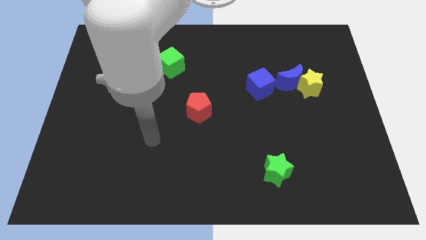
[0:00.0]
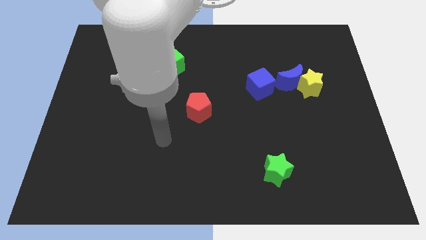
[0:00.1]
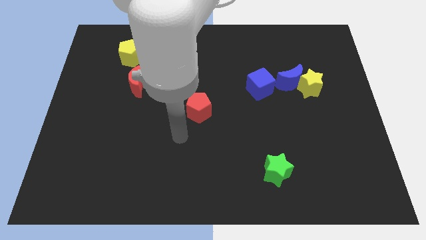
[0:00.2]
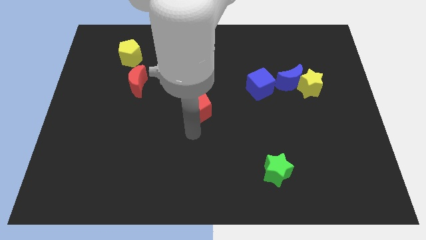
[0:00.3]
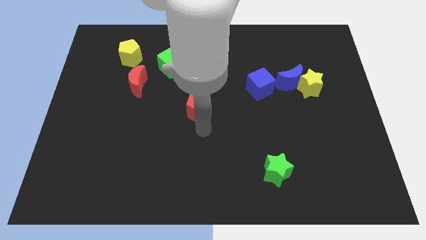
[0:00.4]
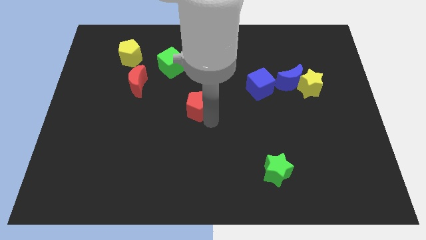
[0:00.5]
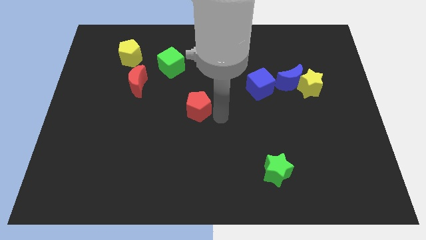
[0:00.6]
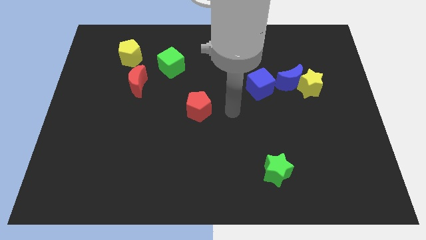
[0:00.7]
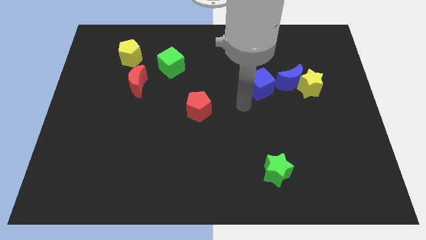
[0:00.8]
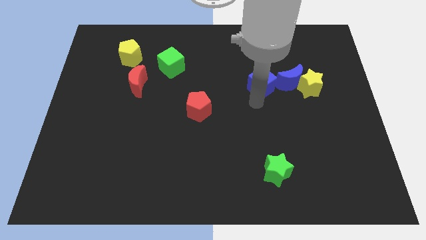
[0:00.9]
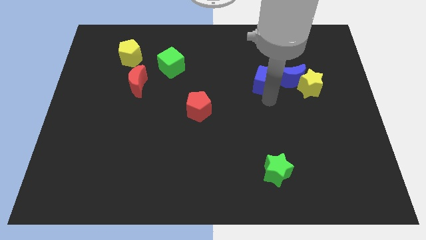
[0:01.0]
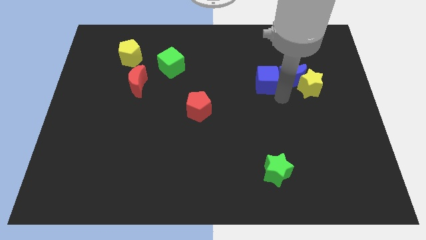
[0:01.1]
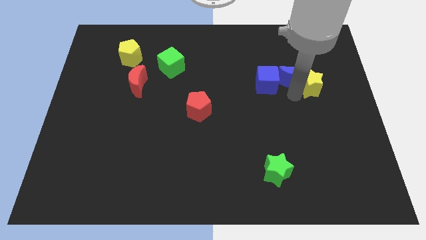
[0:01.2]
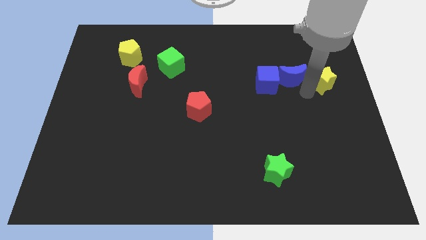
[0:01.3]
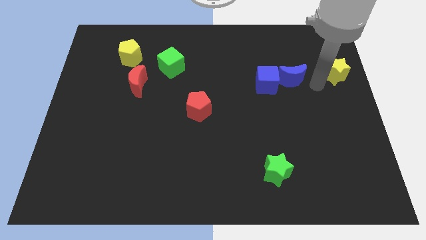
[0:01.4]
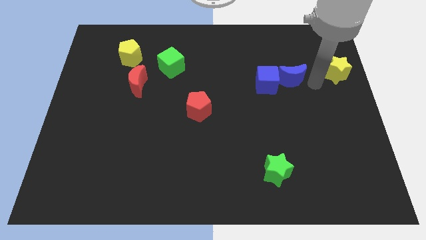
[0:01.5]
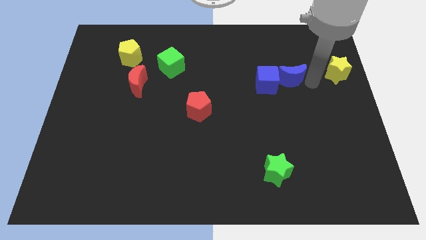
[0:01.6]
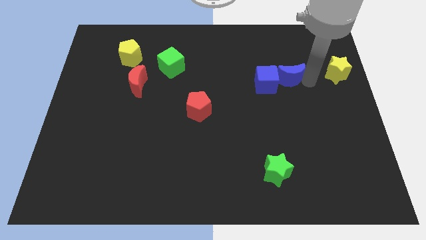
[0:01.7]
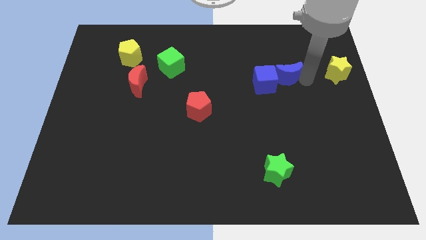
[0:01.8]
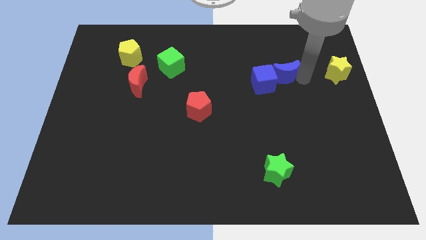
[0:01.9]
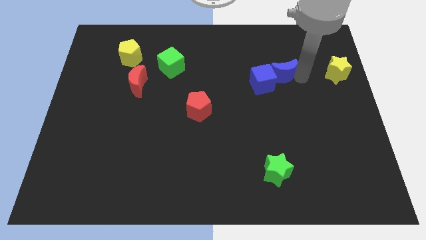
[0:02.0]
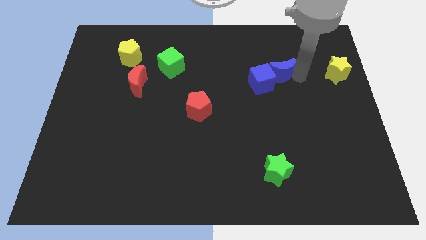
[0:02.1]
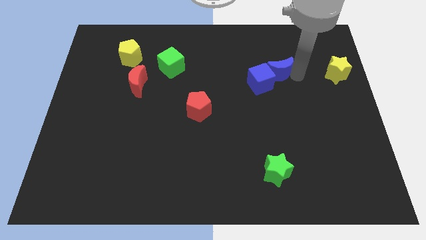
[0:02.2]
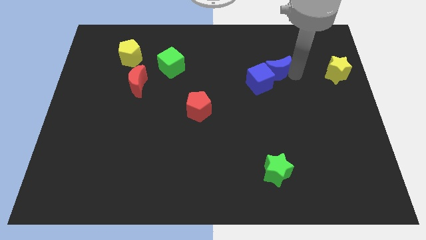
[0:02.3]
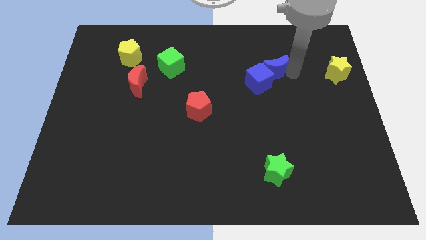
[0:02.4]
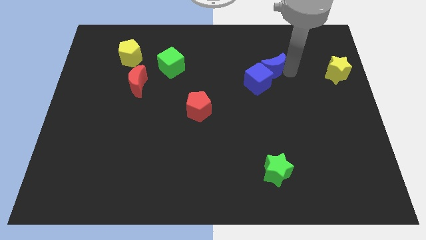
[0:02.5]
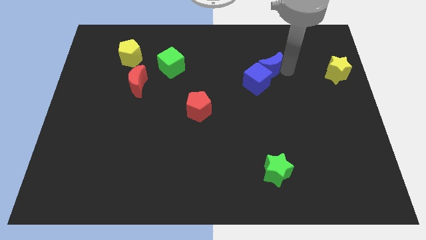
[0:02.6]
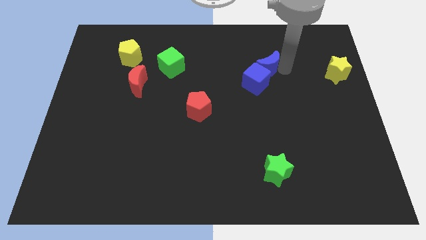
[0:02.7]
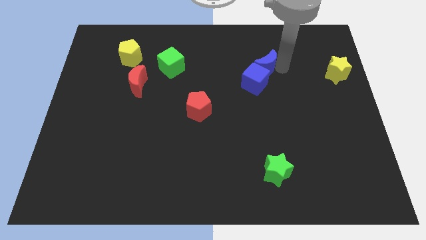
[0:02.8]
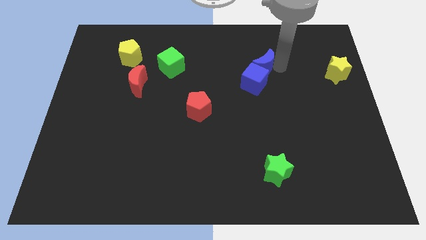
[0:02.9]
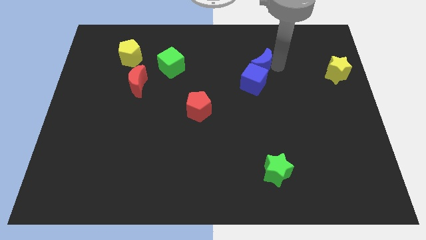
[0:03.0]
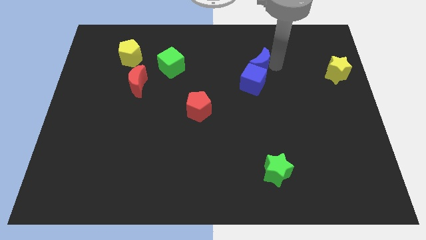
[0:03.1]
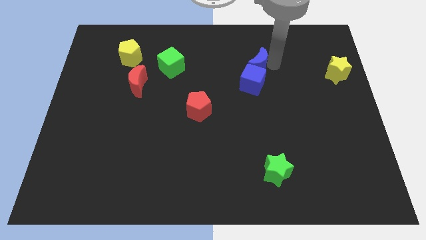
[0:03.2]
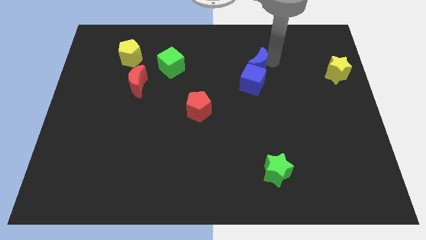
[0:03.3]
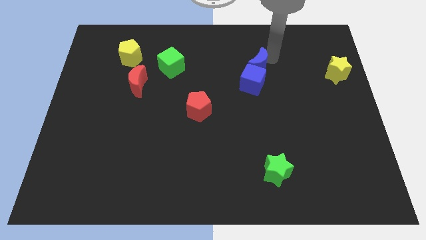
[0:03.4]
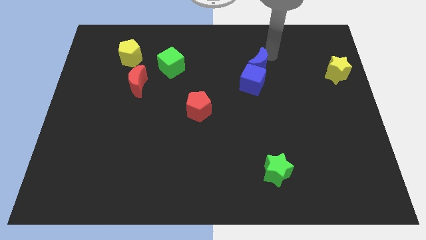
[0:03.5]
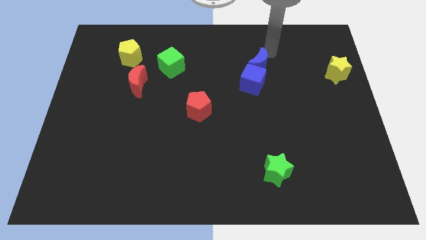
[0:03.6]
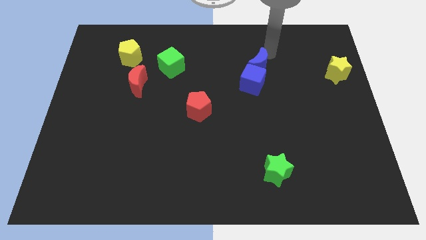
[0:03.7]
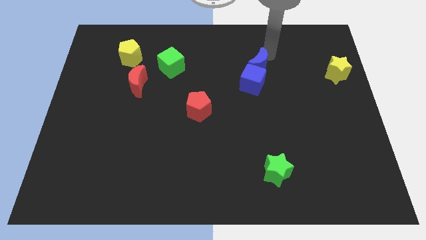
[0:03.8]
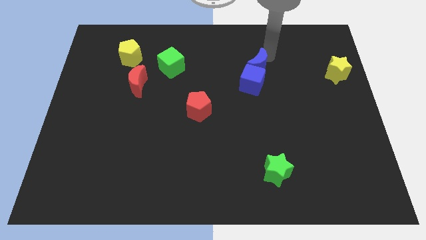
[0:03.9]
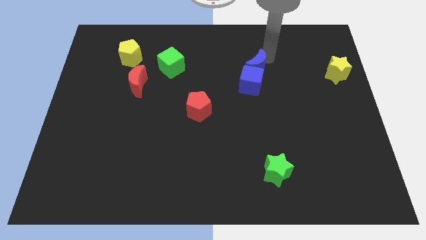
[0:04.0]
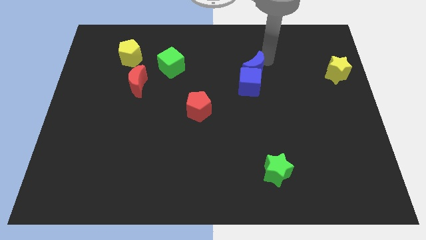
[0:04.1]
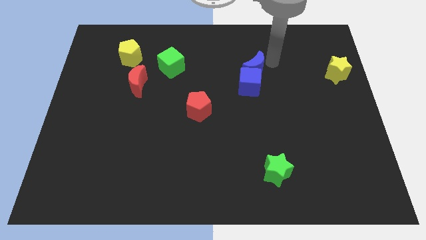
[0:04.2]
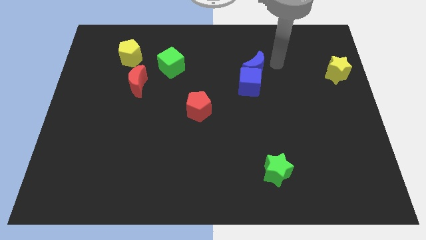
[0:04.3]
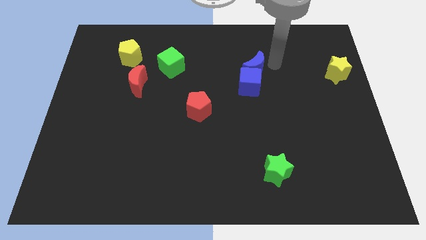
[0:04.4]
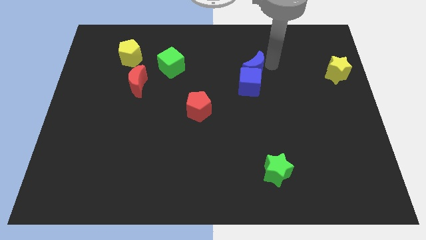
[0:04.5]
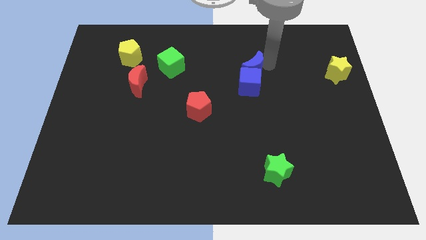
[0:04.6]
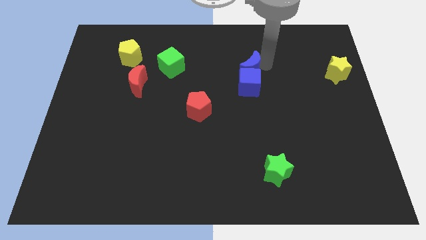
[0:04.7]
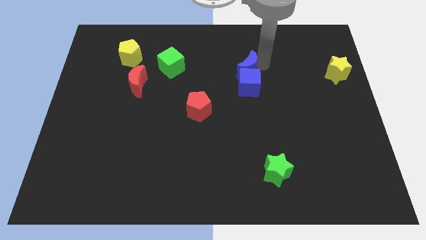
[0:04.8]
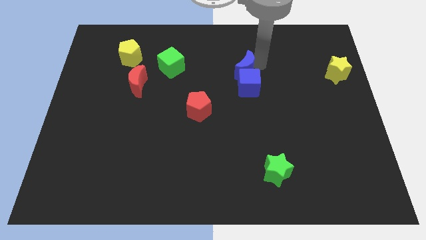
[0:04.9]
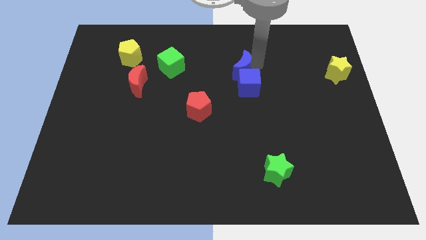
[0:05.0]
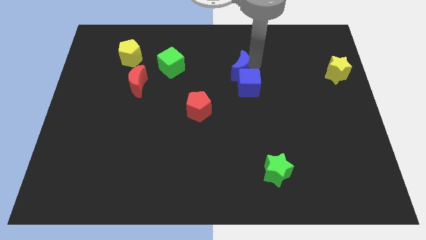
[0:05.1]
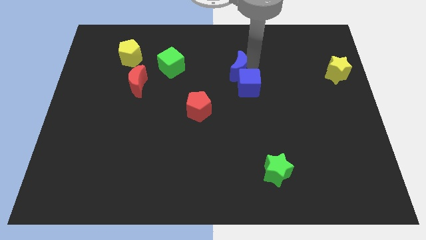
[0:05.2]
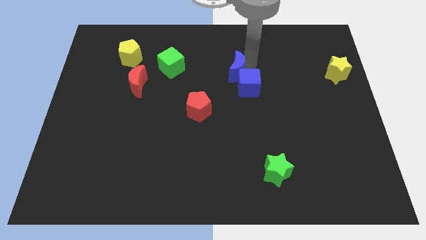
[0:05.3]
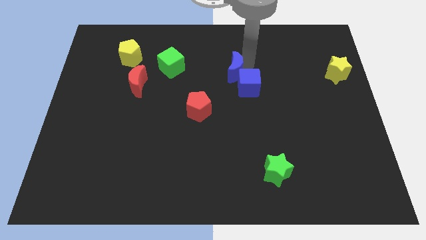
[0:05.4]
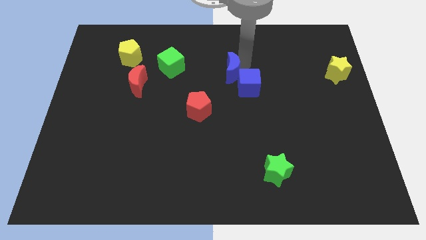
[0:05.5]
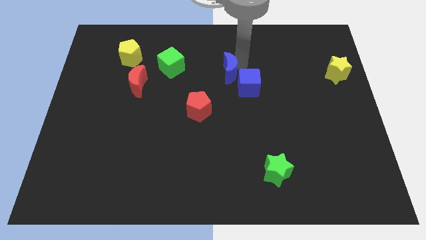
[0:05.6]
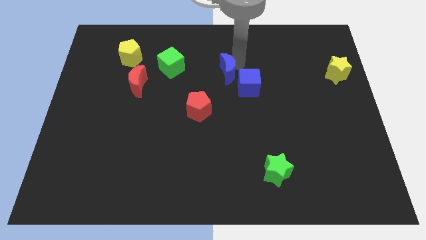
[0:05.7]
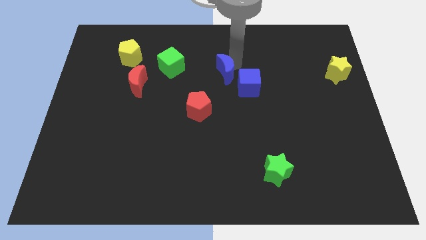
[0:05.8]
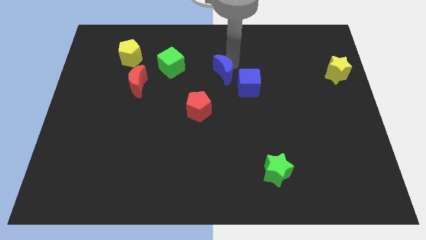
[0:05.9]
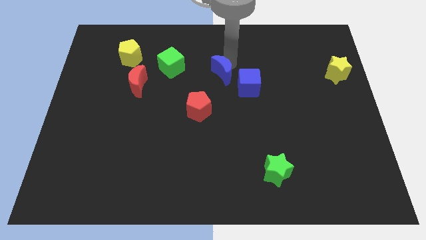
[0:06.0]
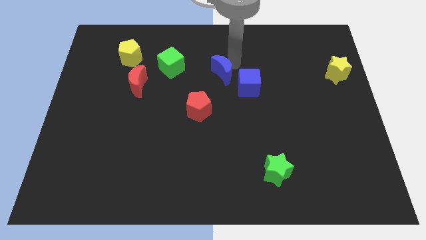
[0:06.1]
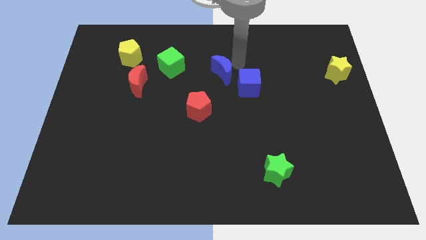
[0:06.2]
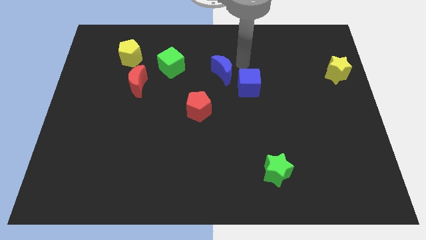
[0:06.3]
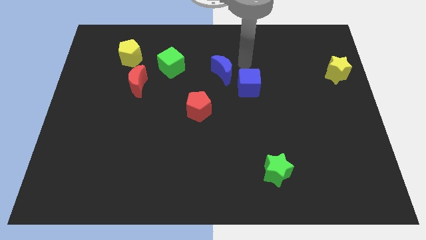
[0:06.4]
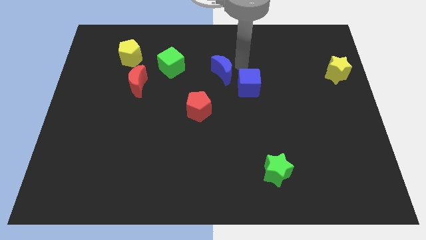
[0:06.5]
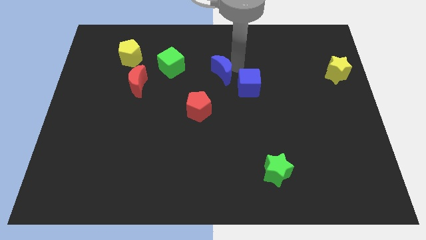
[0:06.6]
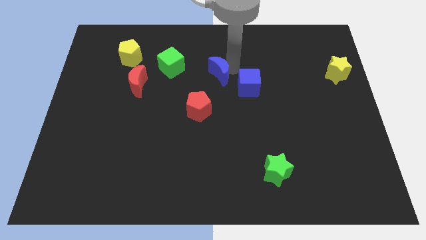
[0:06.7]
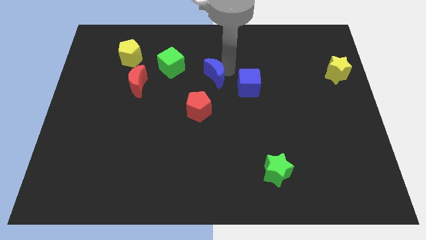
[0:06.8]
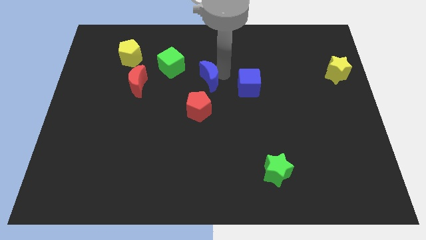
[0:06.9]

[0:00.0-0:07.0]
move the blue moon left

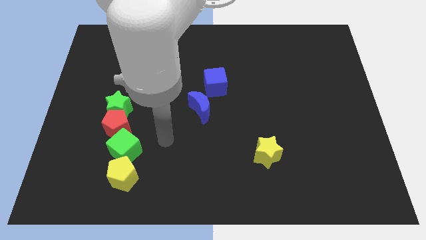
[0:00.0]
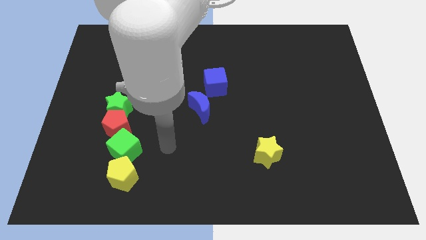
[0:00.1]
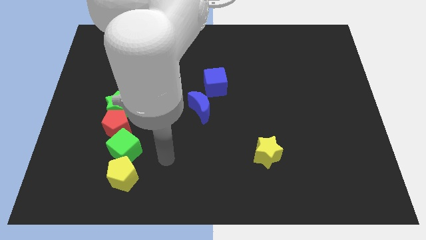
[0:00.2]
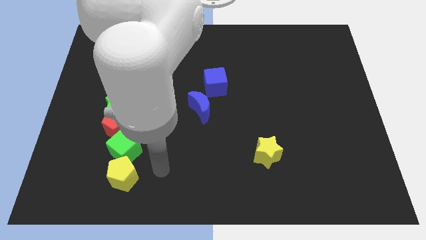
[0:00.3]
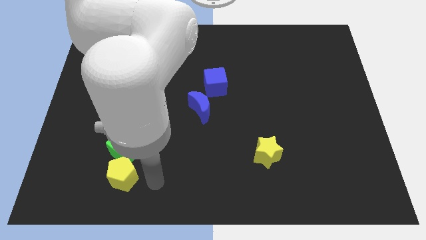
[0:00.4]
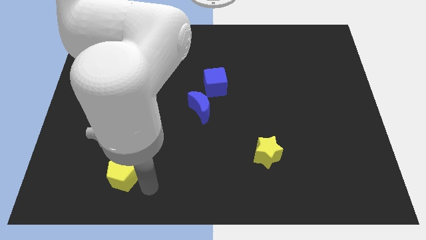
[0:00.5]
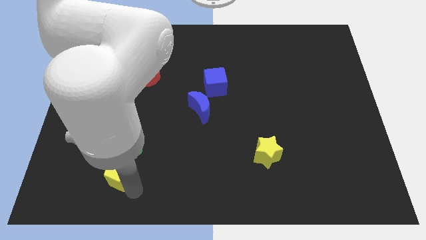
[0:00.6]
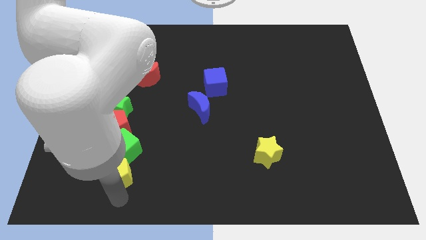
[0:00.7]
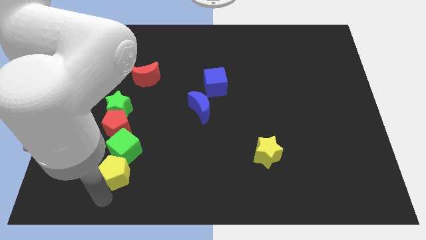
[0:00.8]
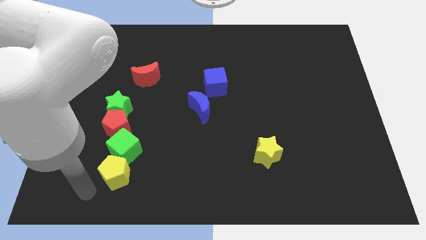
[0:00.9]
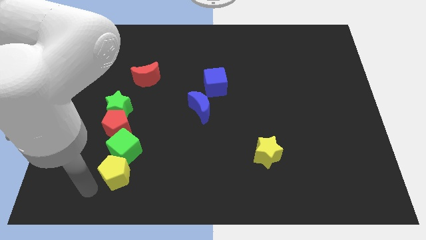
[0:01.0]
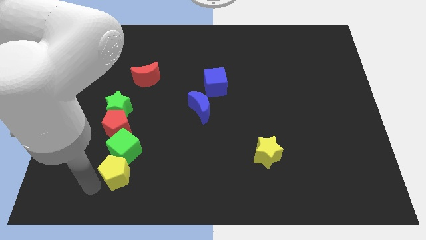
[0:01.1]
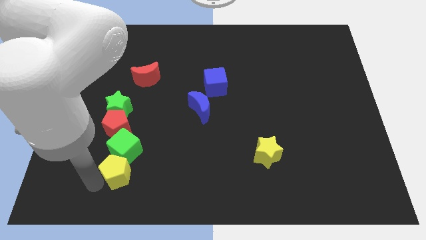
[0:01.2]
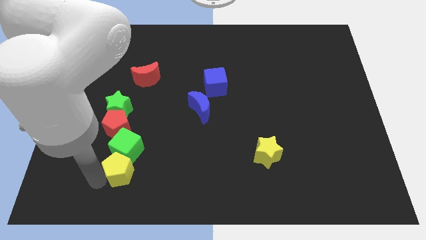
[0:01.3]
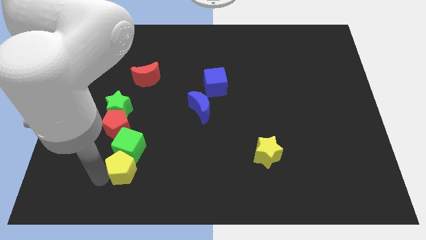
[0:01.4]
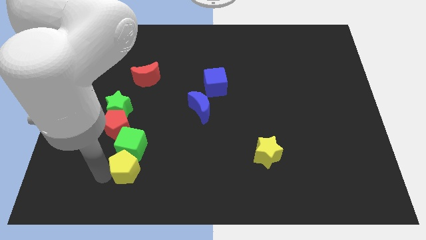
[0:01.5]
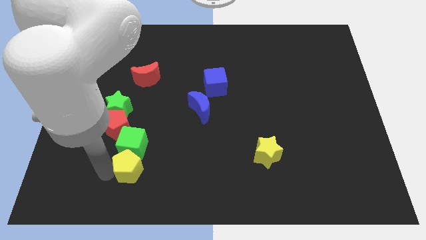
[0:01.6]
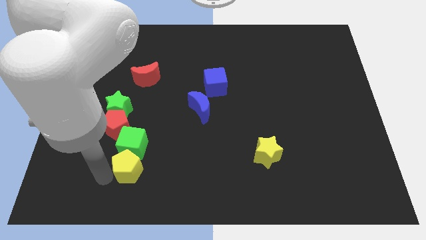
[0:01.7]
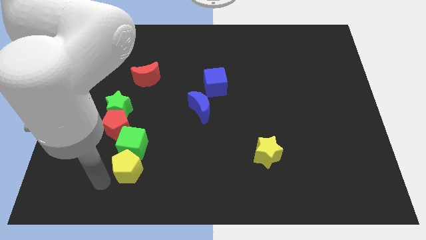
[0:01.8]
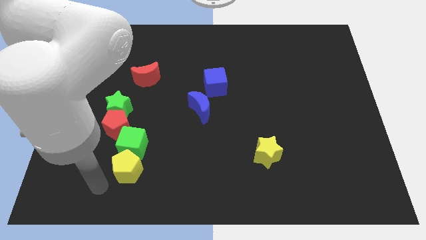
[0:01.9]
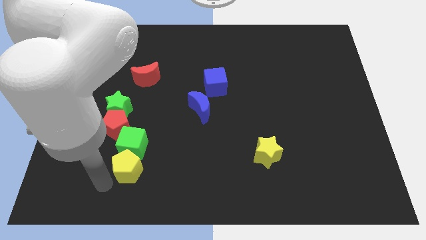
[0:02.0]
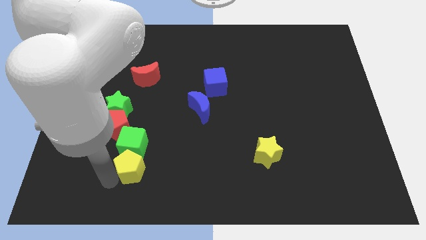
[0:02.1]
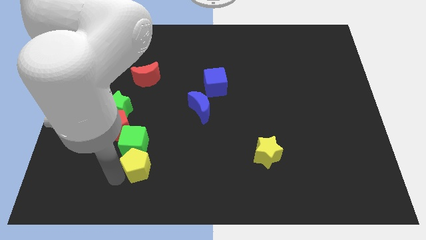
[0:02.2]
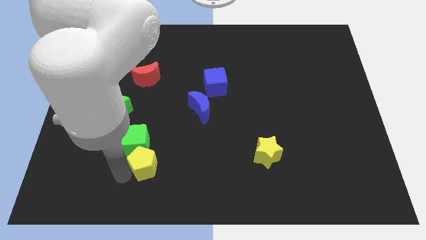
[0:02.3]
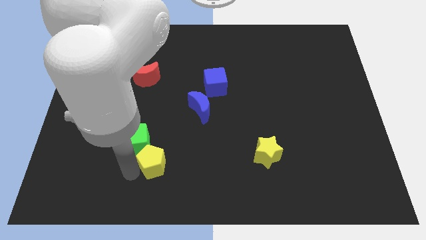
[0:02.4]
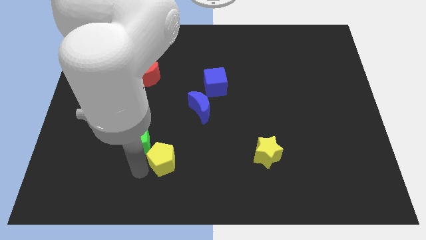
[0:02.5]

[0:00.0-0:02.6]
slightly move the yellow pentagon upwards and right
